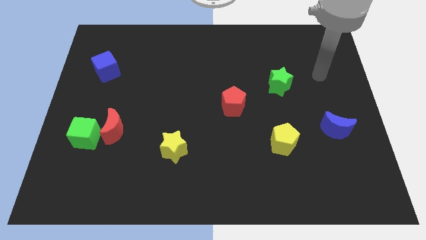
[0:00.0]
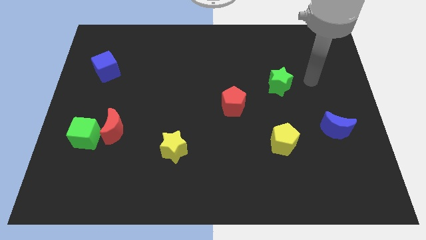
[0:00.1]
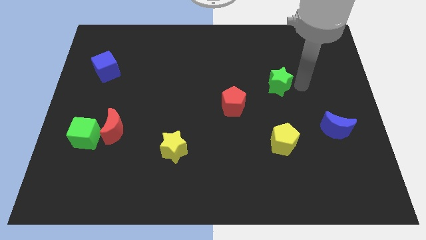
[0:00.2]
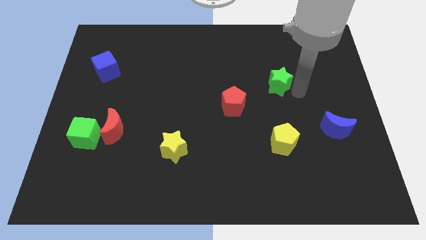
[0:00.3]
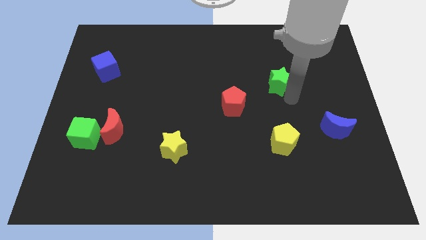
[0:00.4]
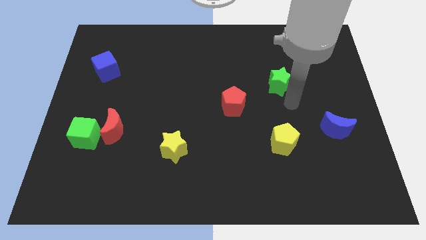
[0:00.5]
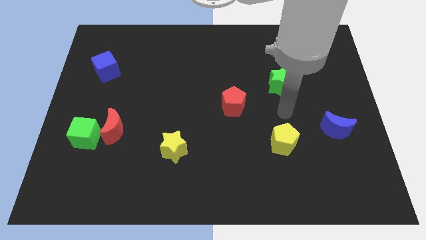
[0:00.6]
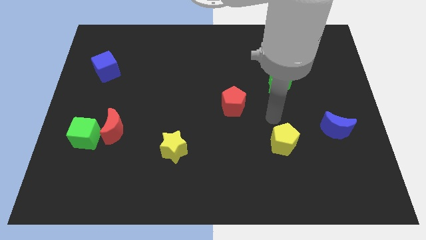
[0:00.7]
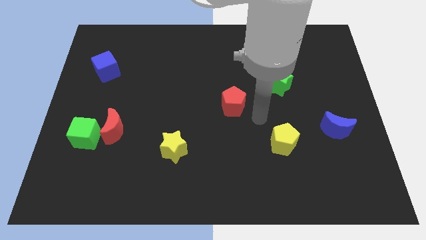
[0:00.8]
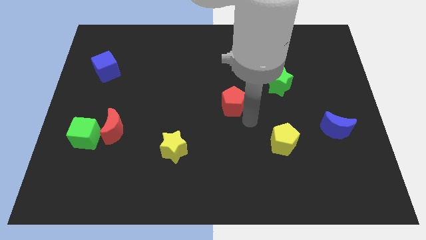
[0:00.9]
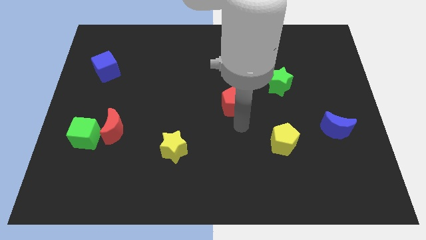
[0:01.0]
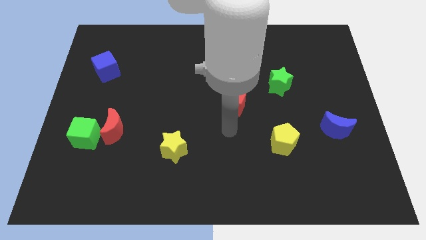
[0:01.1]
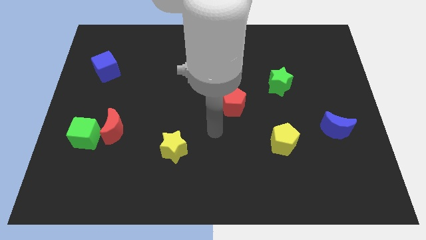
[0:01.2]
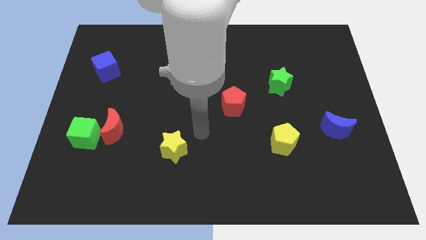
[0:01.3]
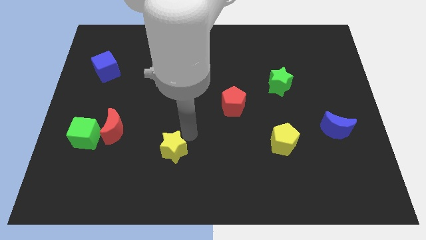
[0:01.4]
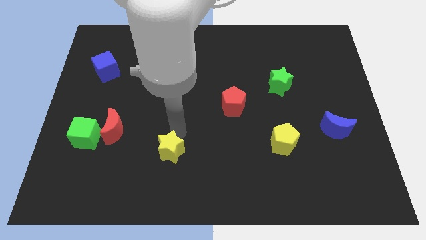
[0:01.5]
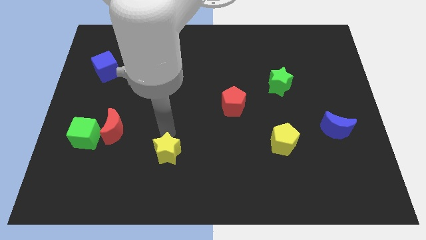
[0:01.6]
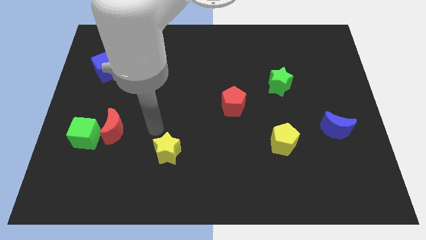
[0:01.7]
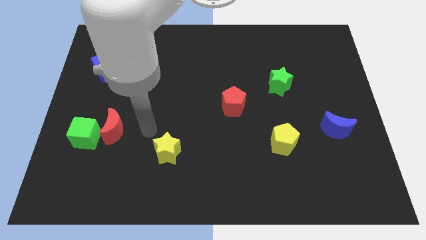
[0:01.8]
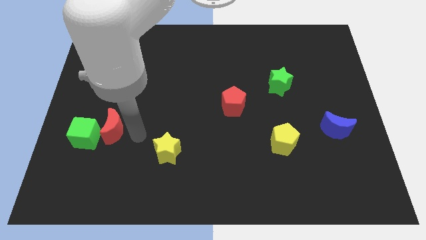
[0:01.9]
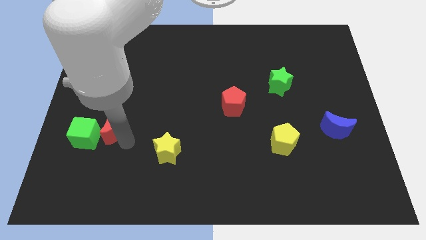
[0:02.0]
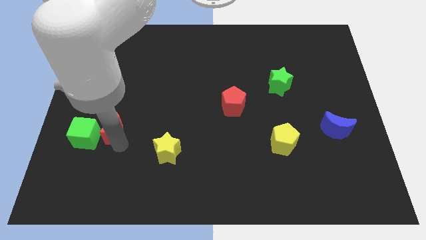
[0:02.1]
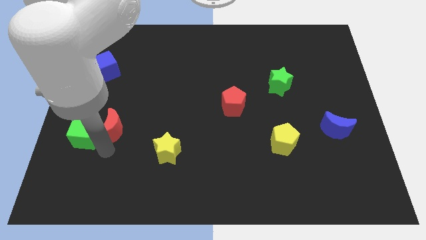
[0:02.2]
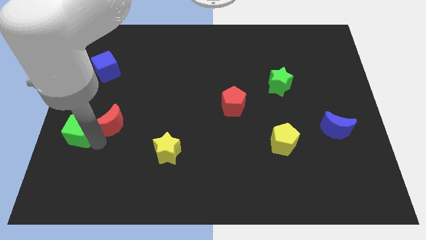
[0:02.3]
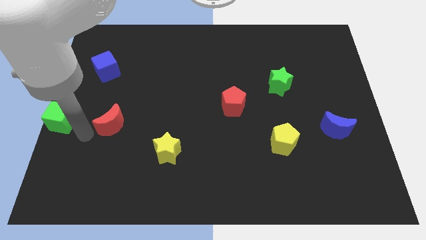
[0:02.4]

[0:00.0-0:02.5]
move the red moon away from the green cube

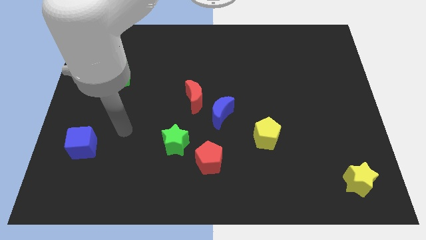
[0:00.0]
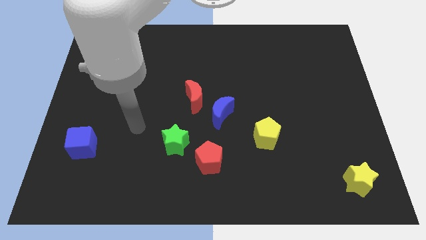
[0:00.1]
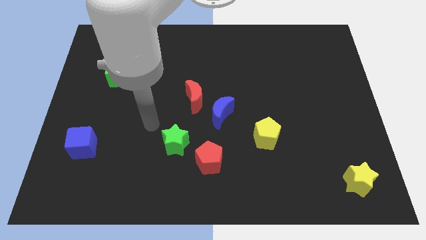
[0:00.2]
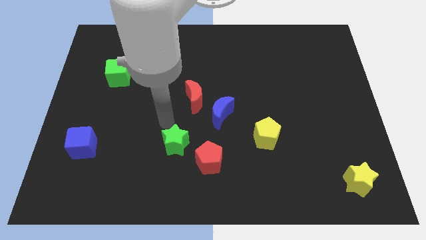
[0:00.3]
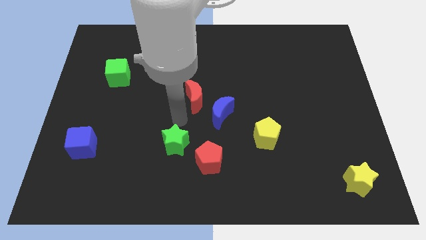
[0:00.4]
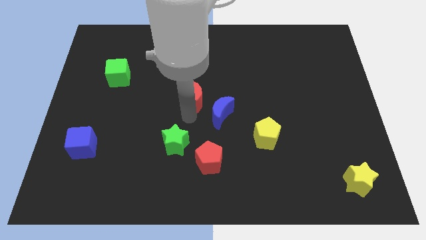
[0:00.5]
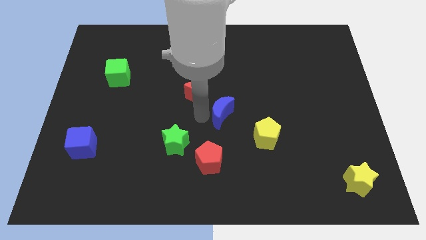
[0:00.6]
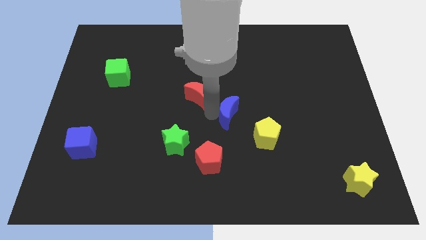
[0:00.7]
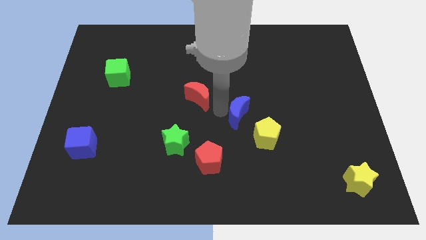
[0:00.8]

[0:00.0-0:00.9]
pull the red moon apart from the blue moon

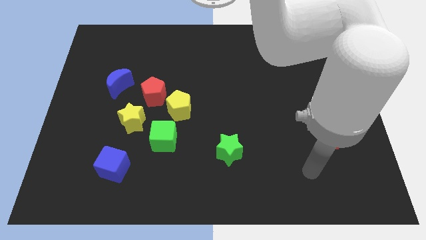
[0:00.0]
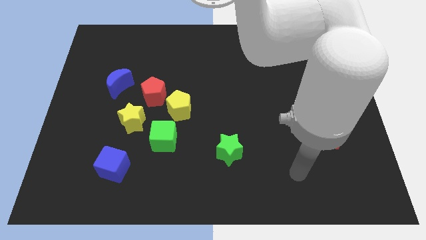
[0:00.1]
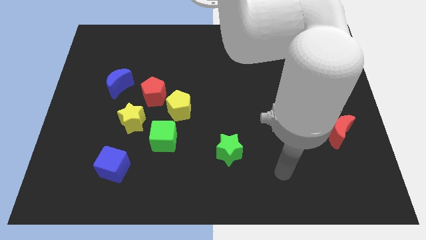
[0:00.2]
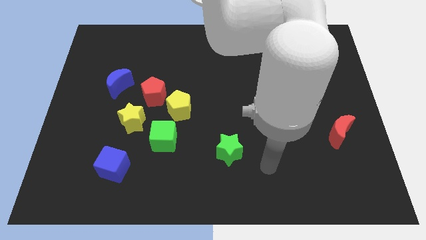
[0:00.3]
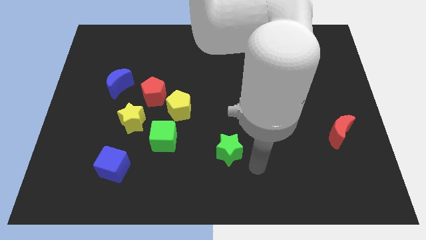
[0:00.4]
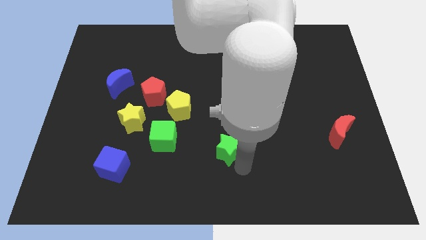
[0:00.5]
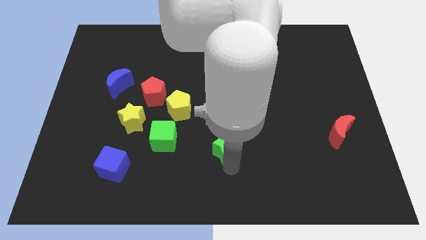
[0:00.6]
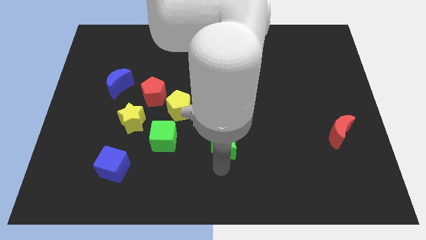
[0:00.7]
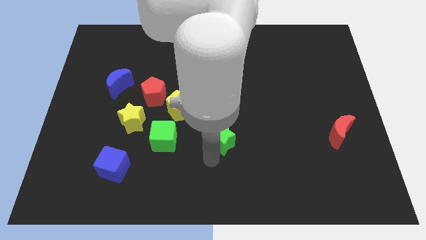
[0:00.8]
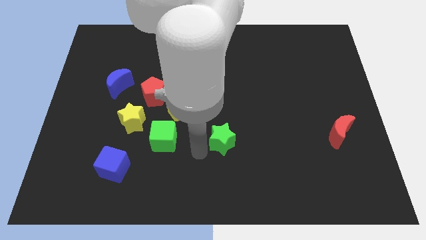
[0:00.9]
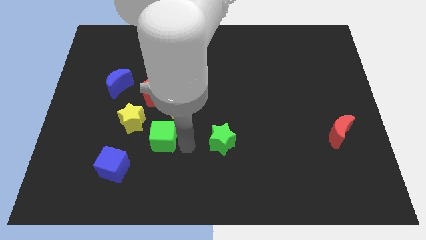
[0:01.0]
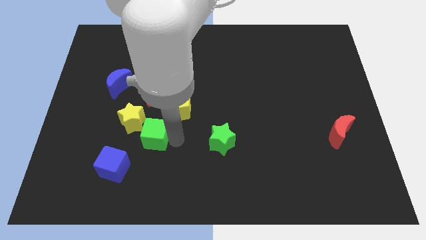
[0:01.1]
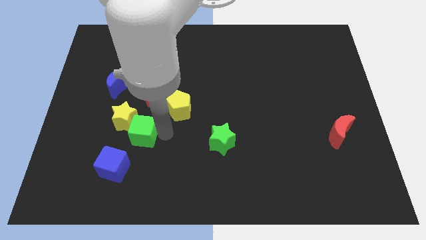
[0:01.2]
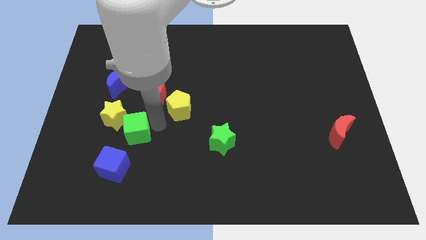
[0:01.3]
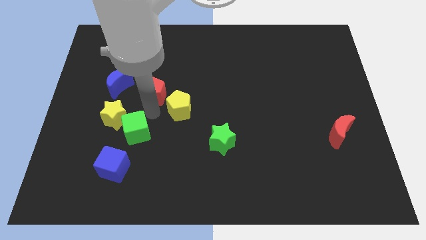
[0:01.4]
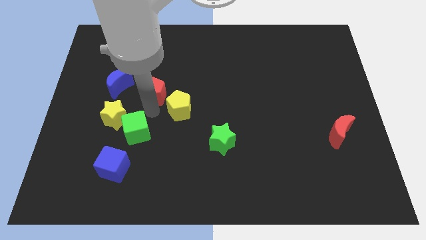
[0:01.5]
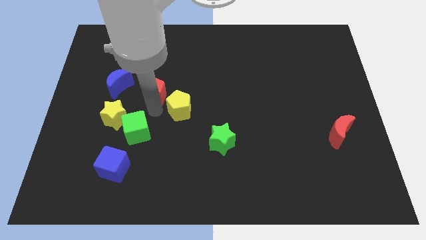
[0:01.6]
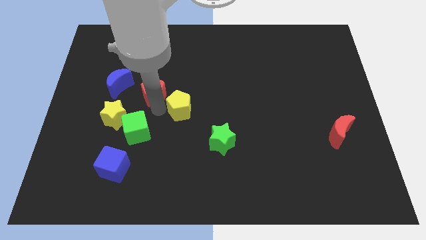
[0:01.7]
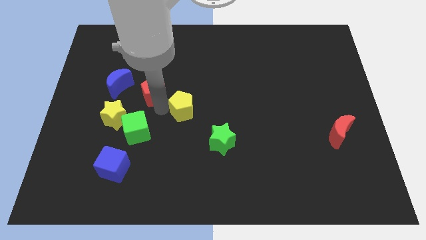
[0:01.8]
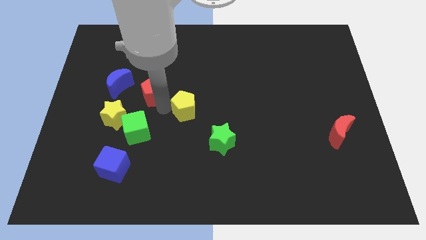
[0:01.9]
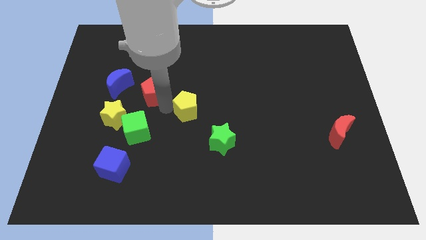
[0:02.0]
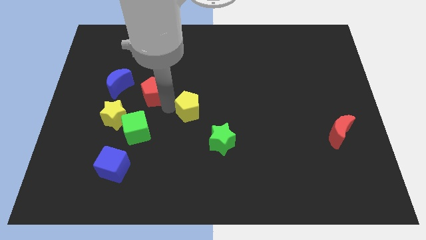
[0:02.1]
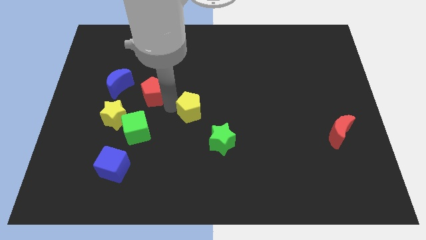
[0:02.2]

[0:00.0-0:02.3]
separate the yellow pentagon from the red pentagon and green cube

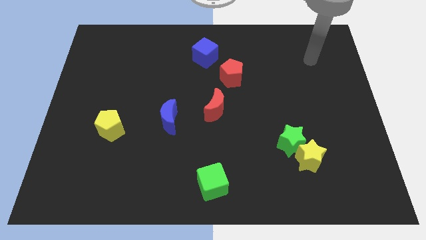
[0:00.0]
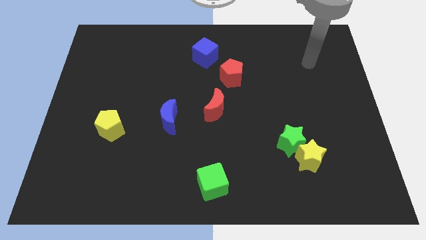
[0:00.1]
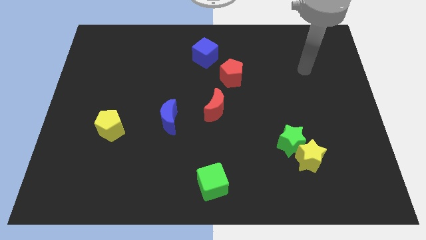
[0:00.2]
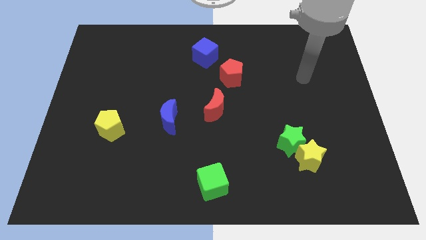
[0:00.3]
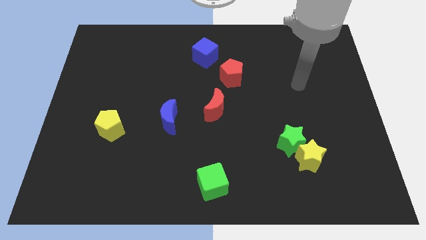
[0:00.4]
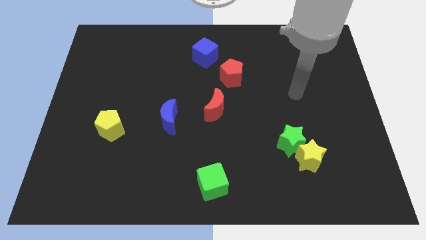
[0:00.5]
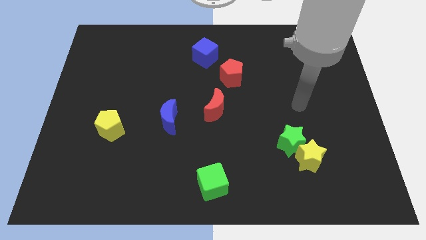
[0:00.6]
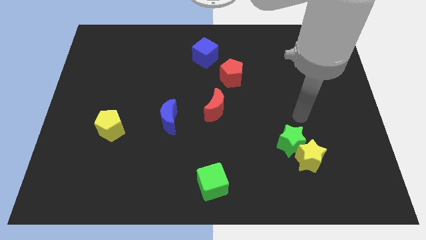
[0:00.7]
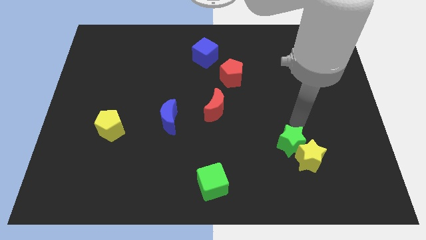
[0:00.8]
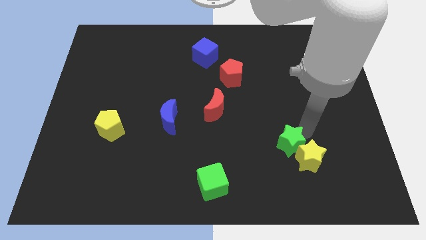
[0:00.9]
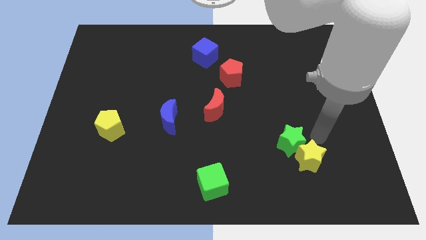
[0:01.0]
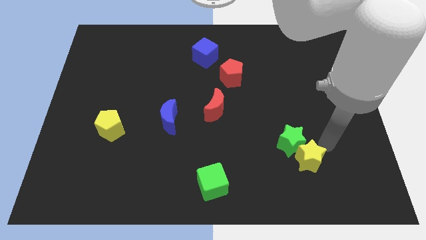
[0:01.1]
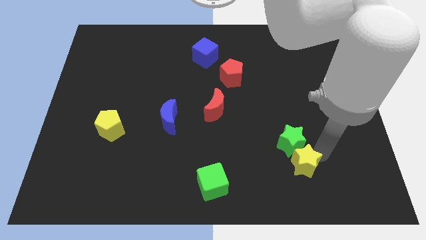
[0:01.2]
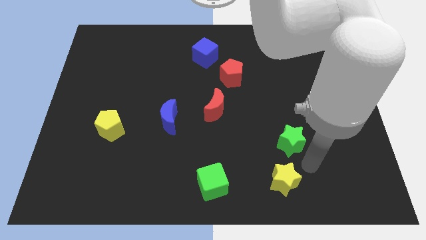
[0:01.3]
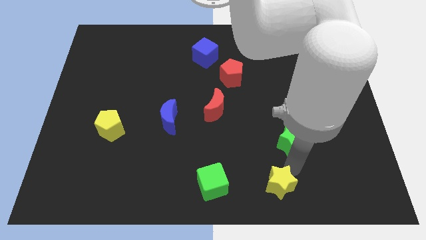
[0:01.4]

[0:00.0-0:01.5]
separate the green star from the yellow star

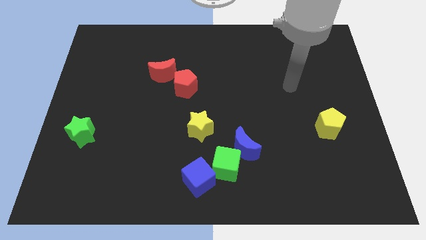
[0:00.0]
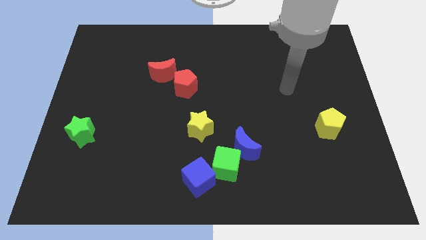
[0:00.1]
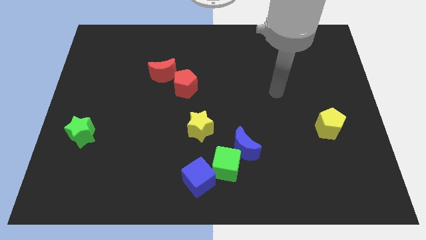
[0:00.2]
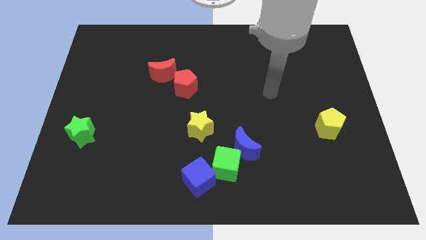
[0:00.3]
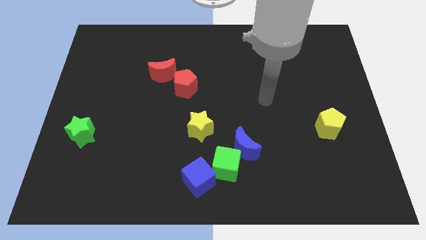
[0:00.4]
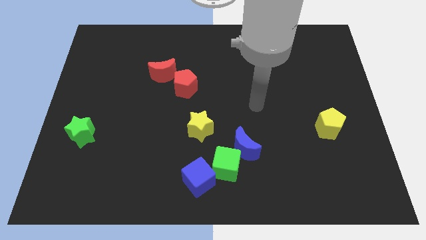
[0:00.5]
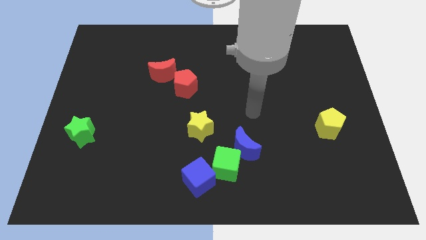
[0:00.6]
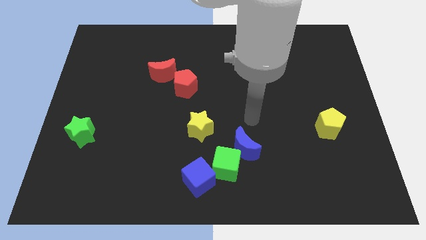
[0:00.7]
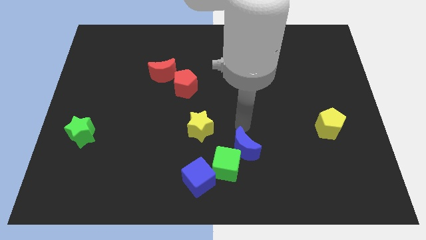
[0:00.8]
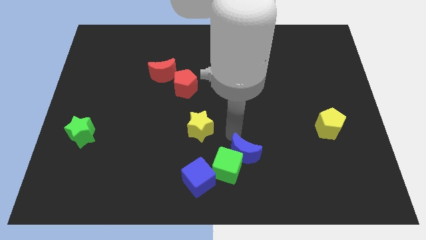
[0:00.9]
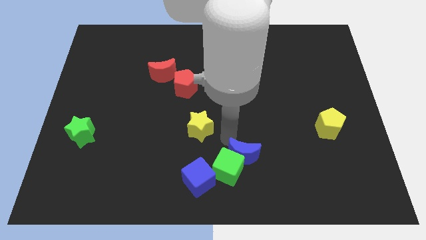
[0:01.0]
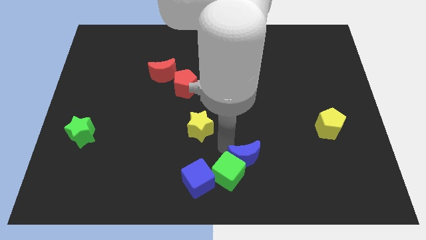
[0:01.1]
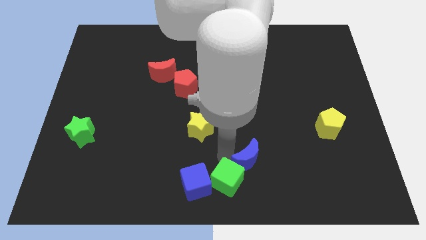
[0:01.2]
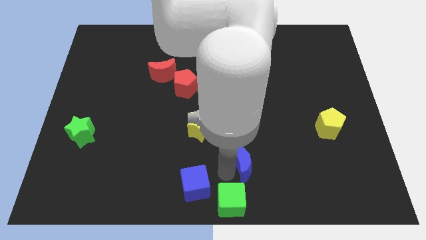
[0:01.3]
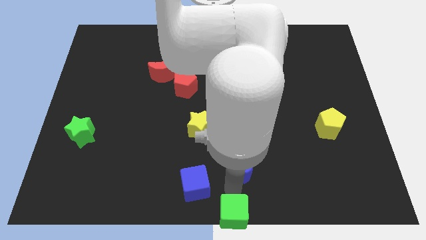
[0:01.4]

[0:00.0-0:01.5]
pull the blue moon apart from the green cube

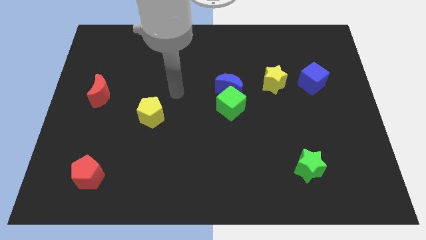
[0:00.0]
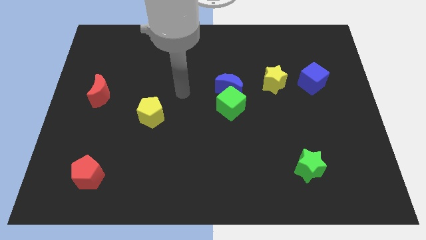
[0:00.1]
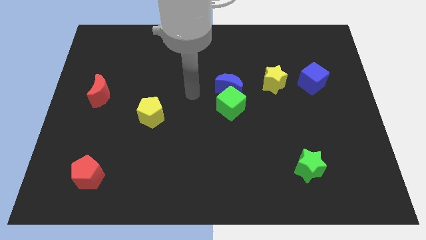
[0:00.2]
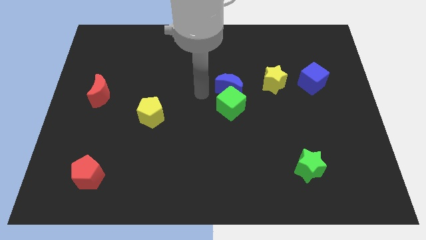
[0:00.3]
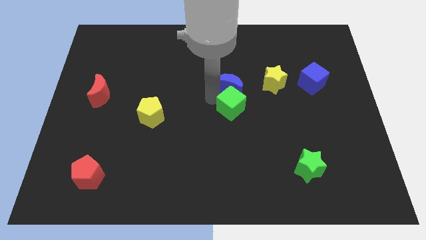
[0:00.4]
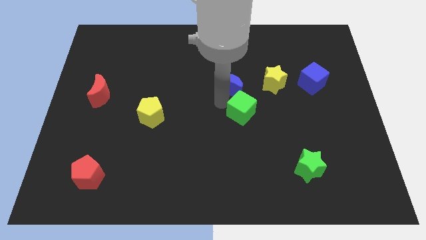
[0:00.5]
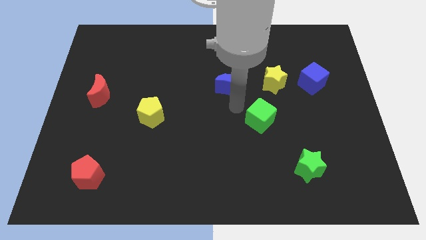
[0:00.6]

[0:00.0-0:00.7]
separate the blue moon from the green cube
